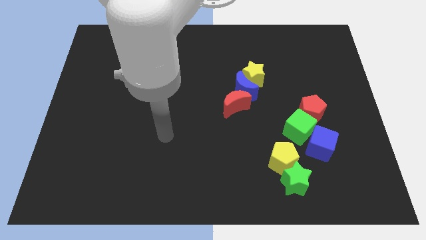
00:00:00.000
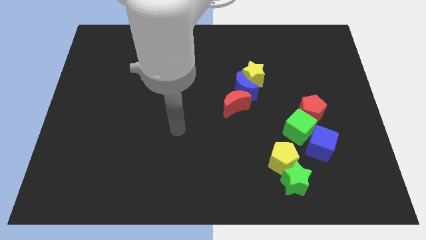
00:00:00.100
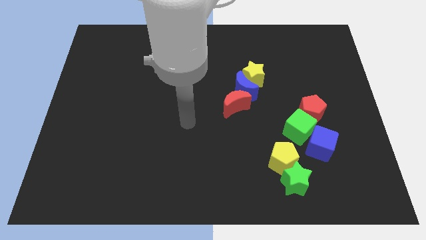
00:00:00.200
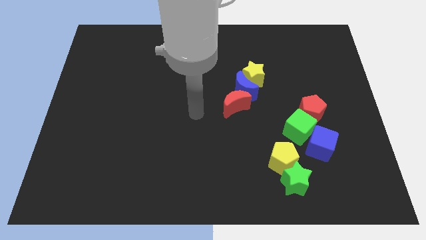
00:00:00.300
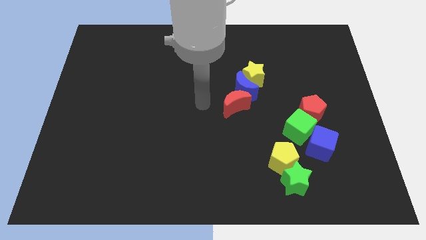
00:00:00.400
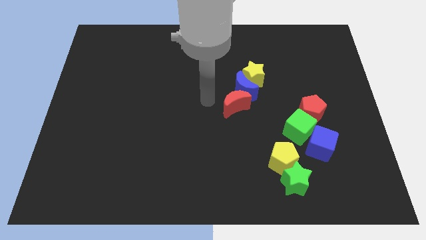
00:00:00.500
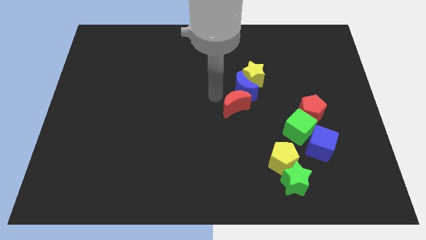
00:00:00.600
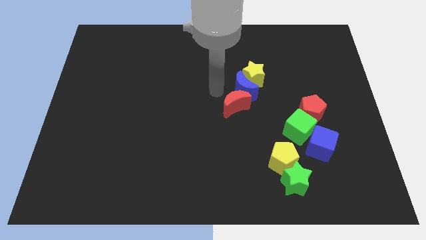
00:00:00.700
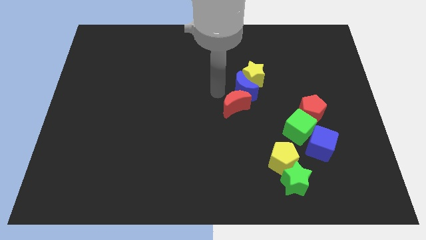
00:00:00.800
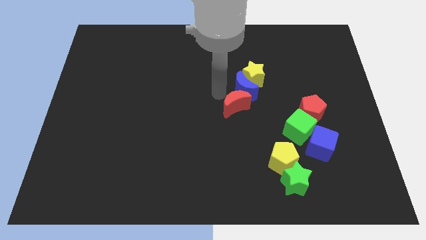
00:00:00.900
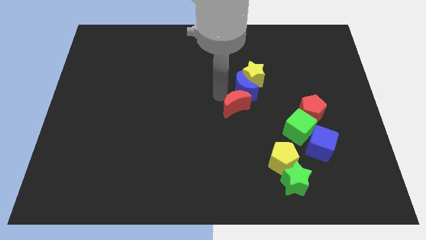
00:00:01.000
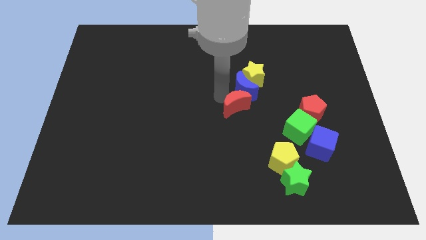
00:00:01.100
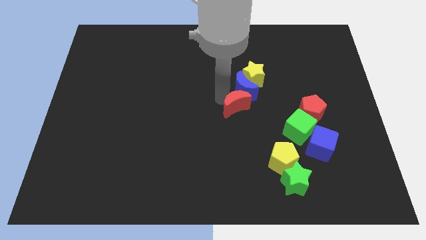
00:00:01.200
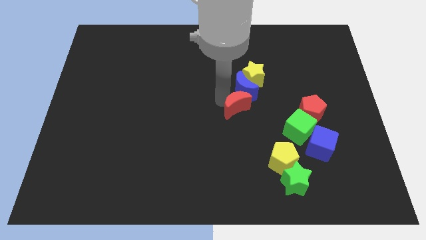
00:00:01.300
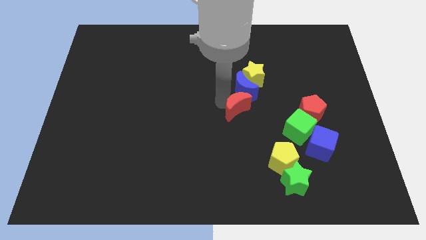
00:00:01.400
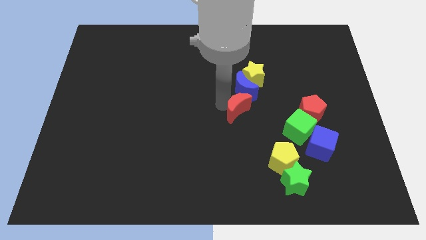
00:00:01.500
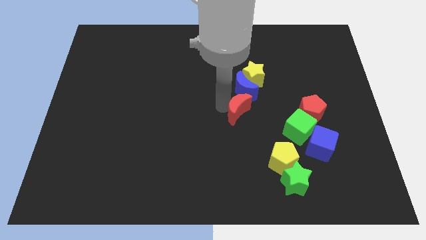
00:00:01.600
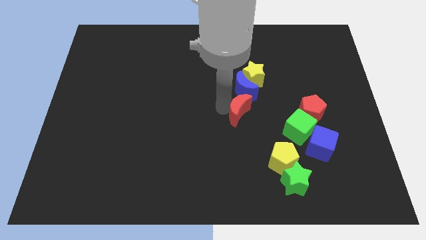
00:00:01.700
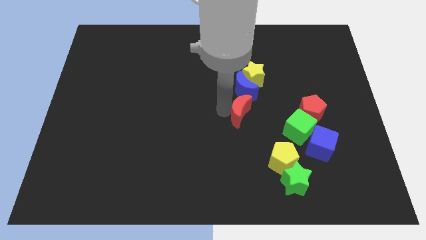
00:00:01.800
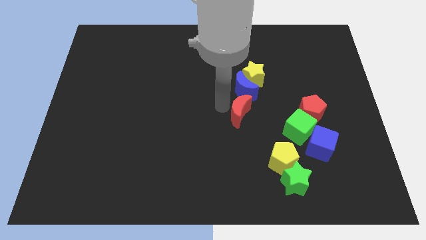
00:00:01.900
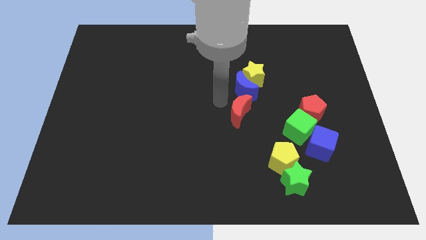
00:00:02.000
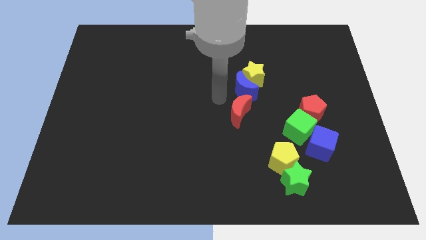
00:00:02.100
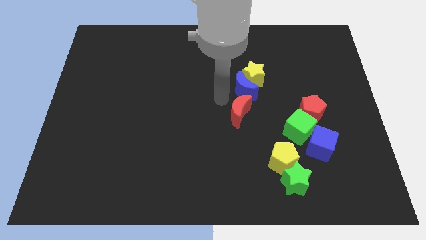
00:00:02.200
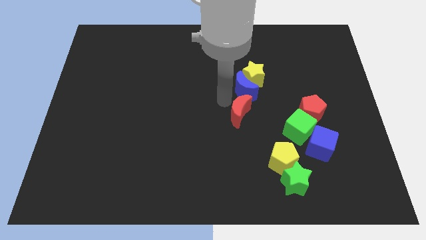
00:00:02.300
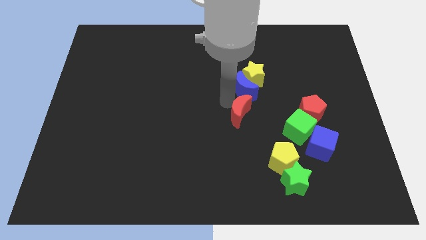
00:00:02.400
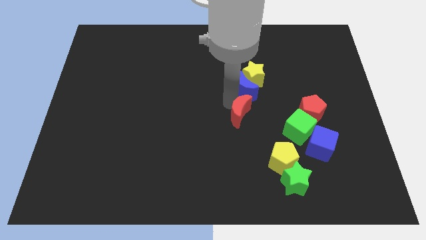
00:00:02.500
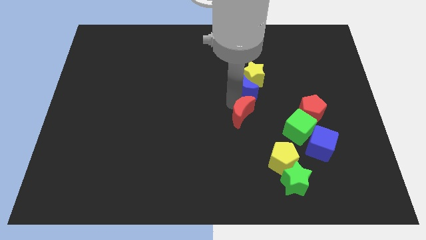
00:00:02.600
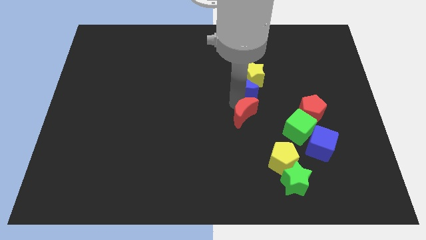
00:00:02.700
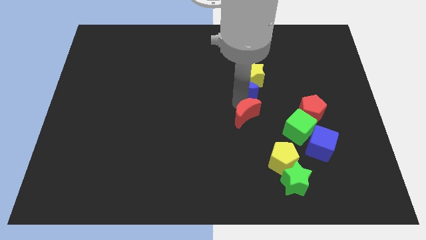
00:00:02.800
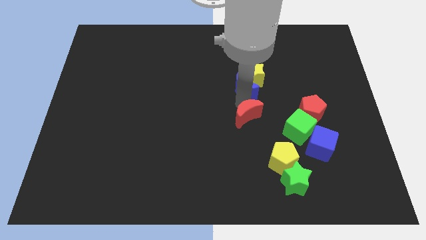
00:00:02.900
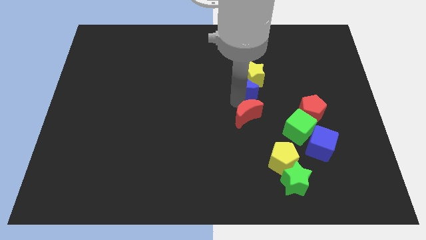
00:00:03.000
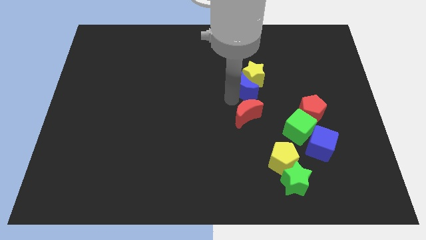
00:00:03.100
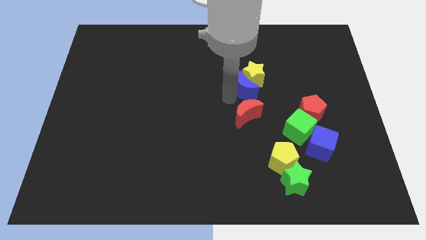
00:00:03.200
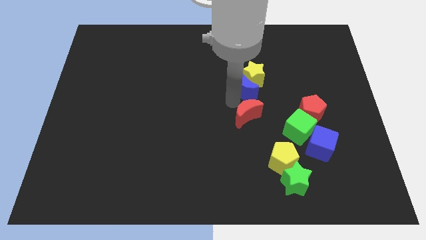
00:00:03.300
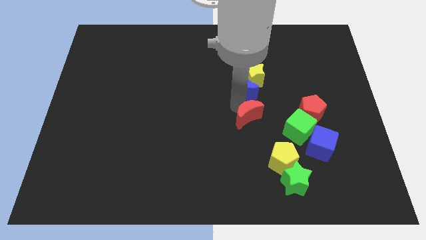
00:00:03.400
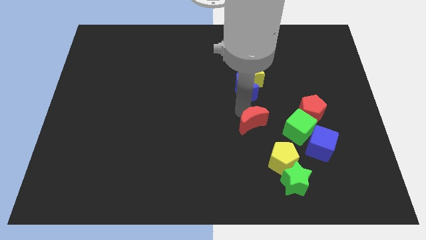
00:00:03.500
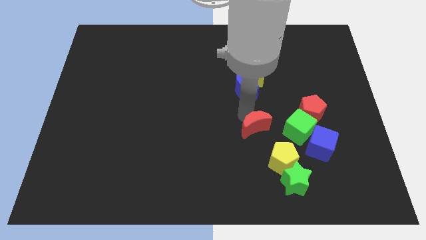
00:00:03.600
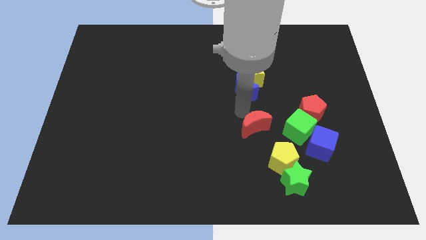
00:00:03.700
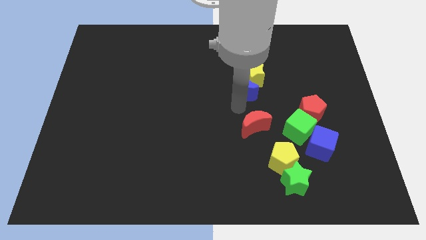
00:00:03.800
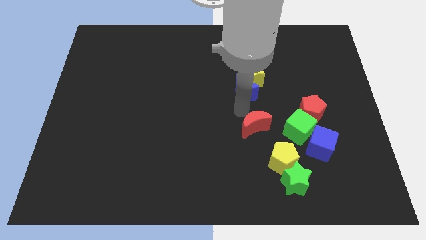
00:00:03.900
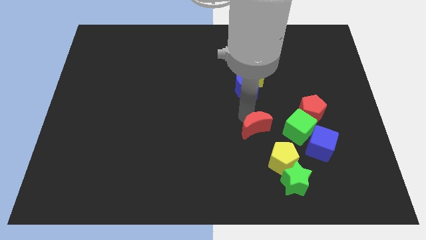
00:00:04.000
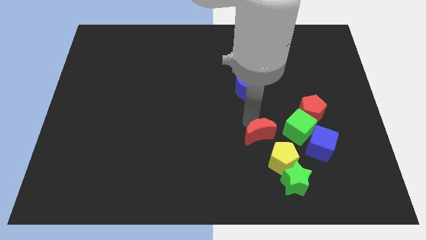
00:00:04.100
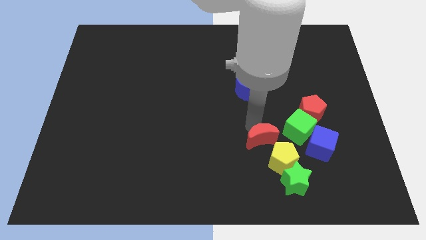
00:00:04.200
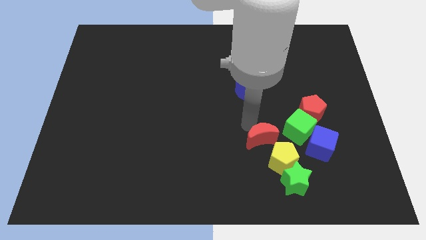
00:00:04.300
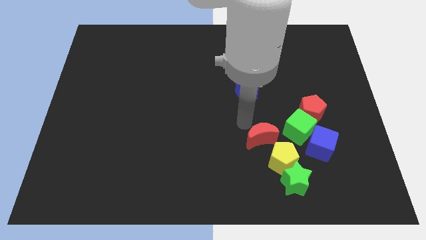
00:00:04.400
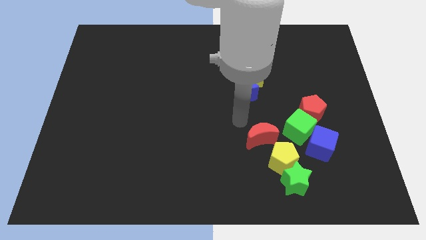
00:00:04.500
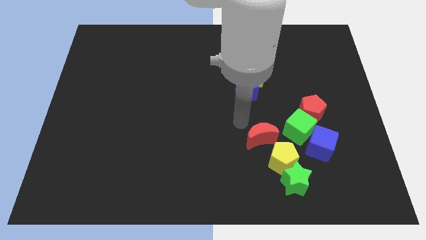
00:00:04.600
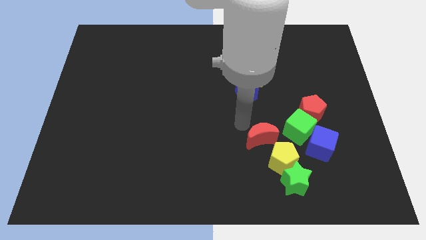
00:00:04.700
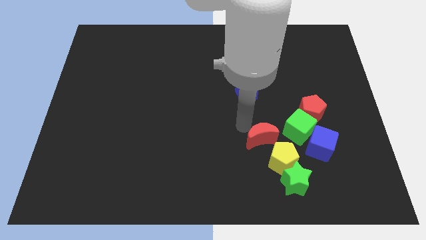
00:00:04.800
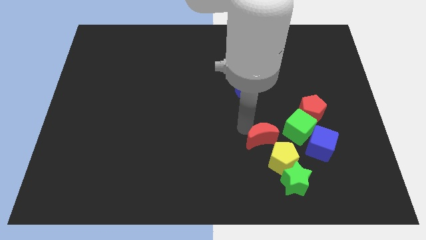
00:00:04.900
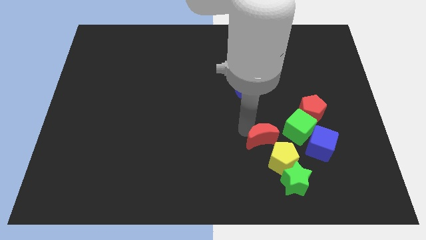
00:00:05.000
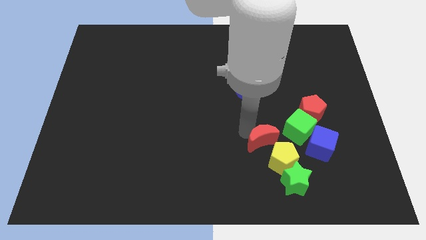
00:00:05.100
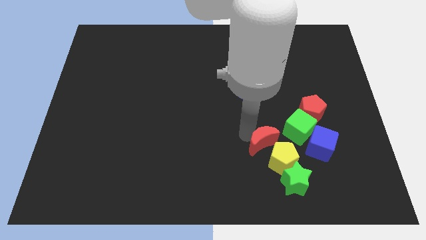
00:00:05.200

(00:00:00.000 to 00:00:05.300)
move the red moon next to the yellow pentagon

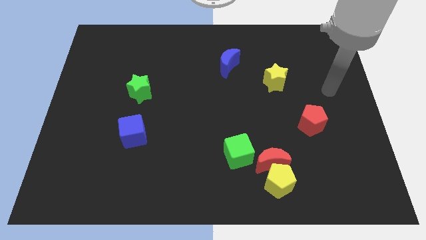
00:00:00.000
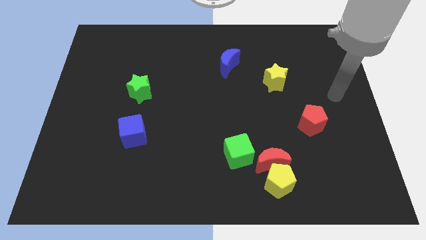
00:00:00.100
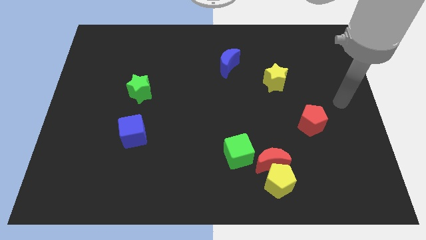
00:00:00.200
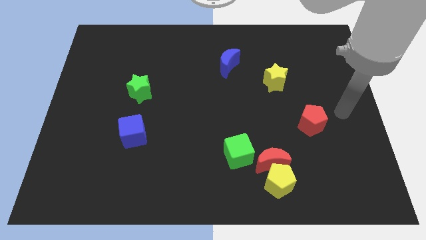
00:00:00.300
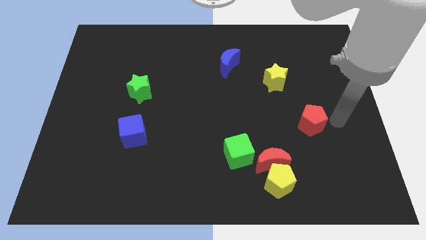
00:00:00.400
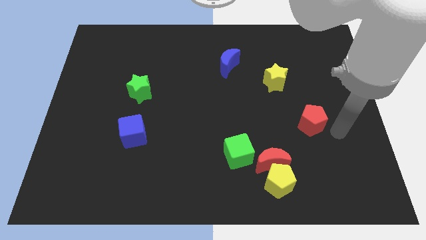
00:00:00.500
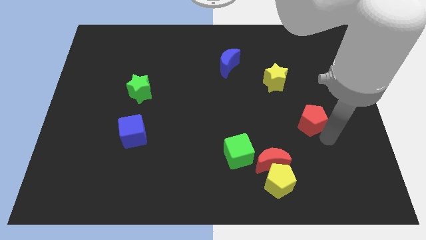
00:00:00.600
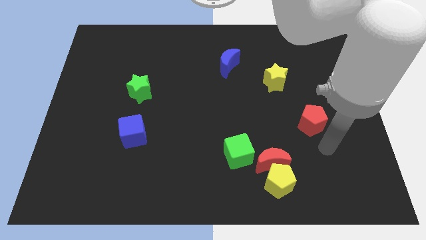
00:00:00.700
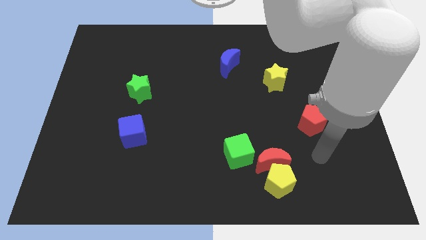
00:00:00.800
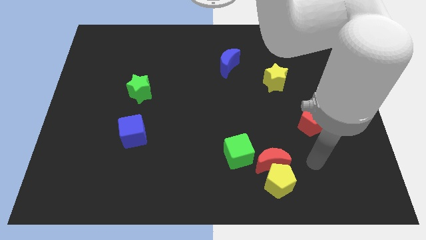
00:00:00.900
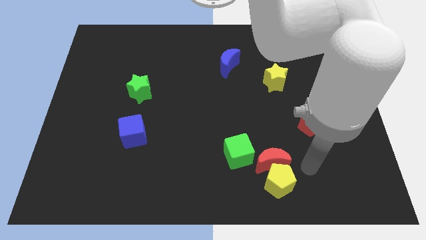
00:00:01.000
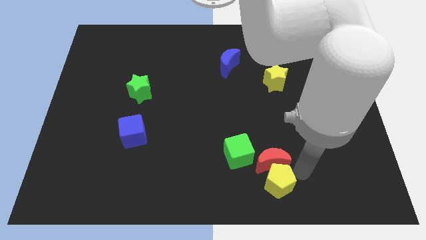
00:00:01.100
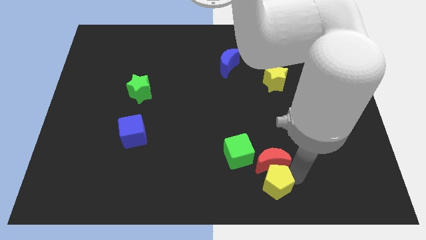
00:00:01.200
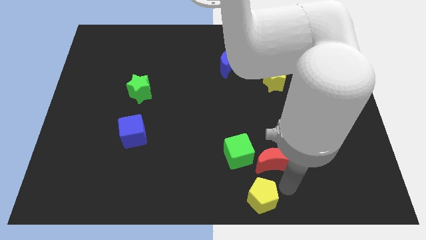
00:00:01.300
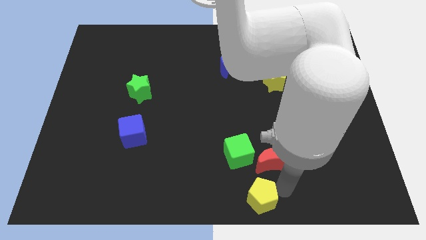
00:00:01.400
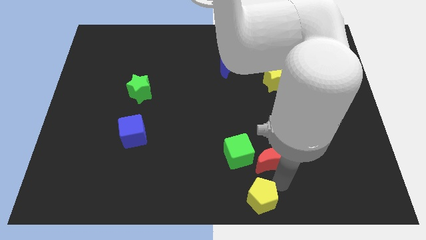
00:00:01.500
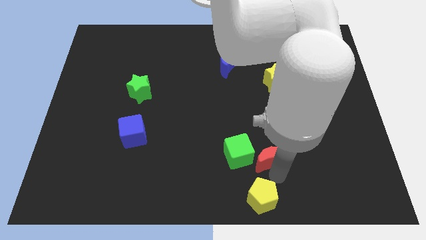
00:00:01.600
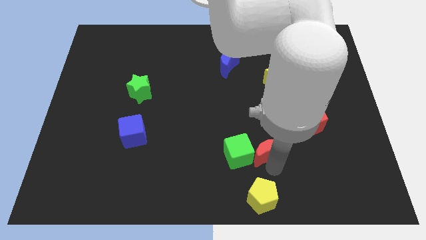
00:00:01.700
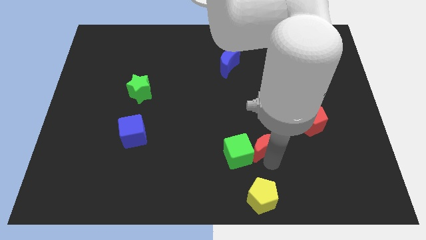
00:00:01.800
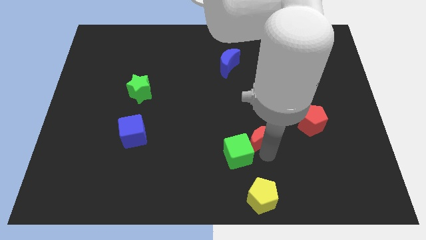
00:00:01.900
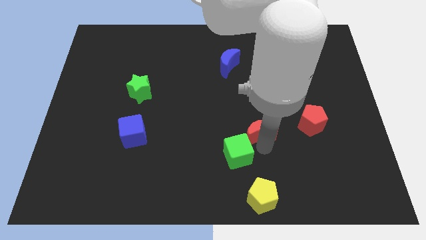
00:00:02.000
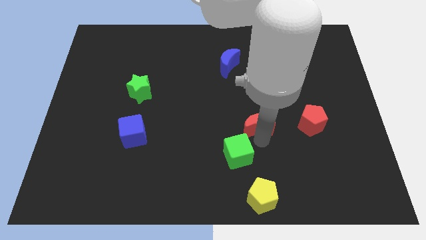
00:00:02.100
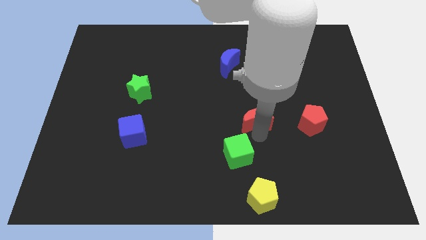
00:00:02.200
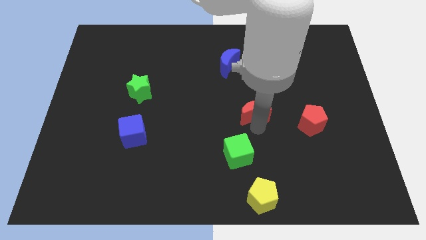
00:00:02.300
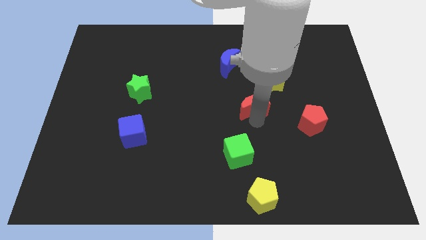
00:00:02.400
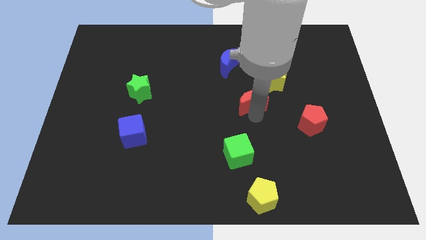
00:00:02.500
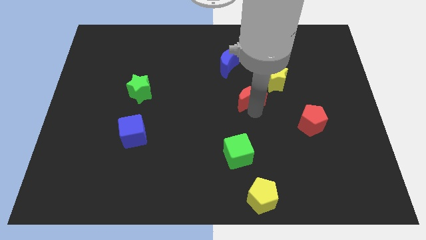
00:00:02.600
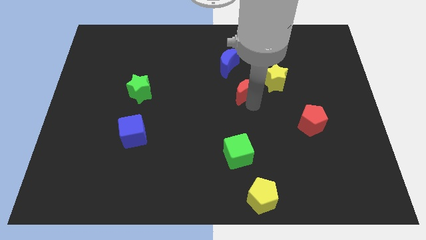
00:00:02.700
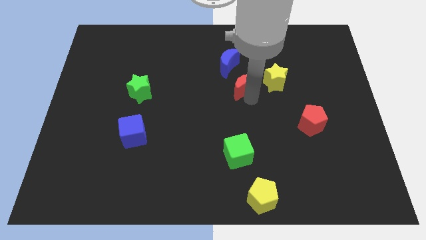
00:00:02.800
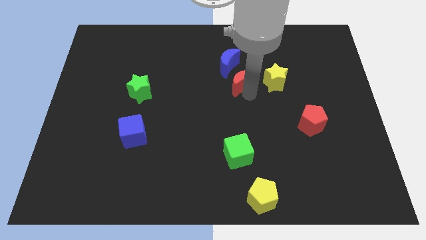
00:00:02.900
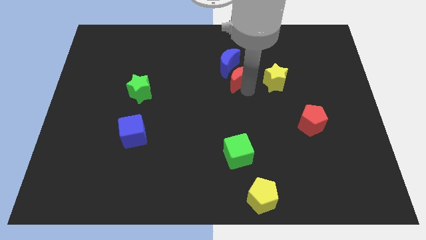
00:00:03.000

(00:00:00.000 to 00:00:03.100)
push the red moon to the blue moon
